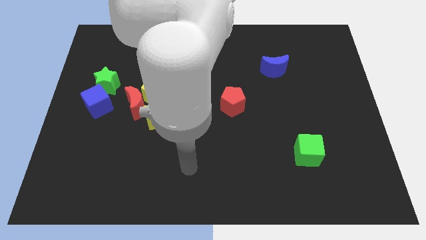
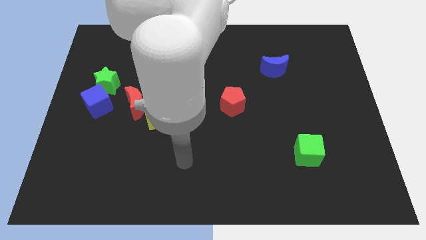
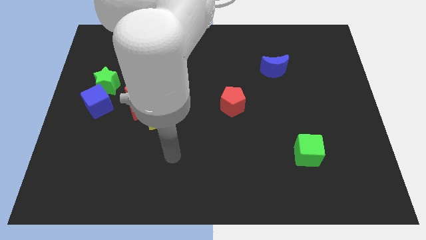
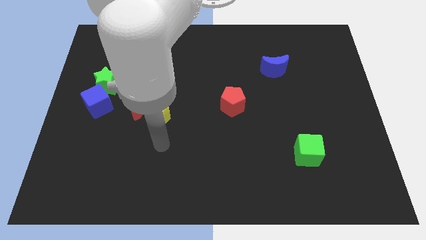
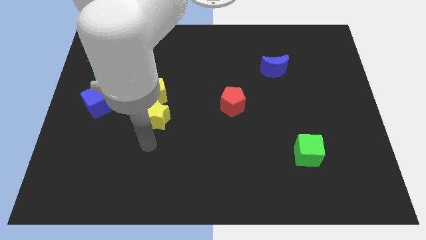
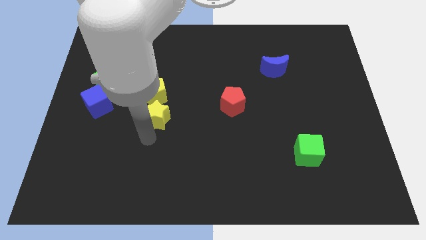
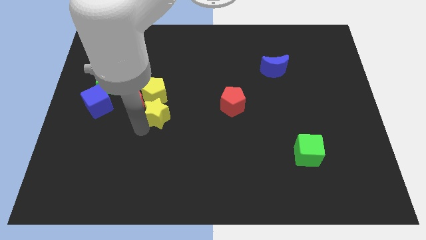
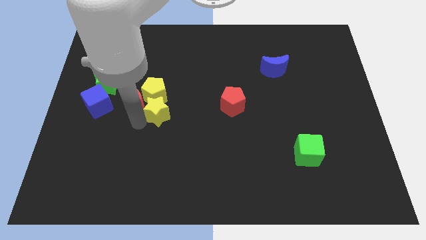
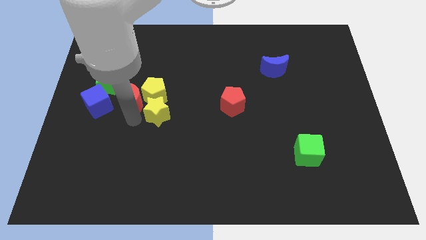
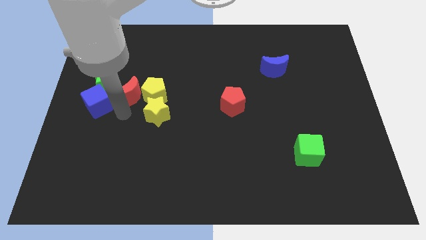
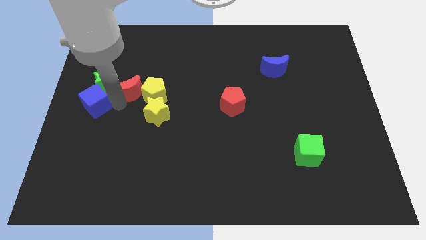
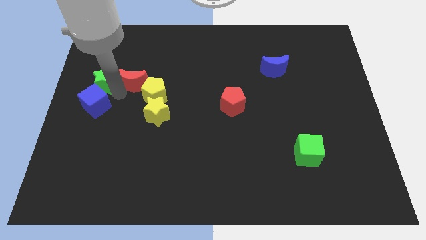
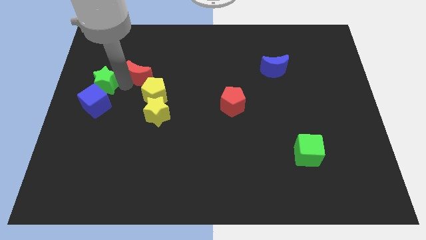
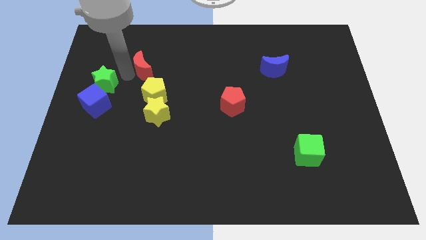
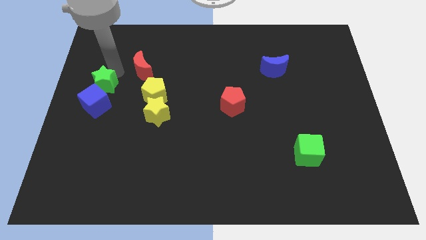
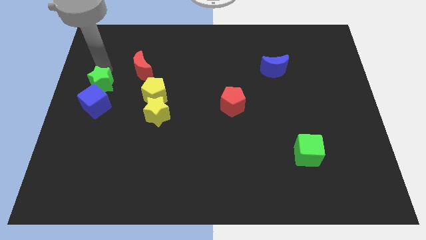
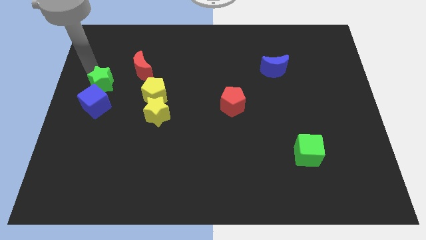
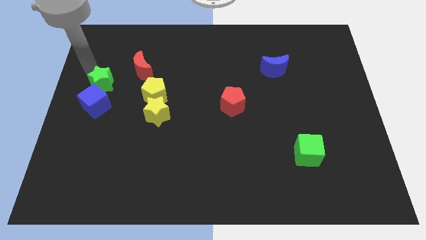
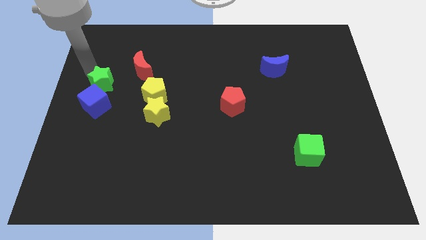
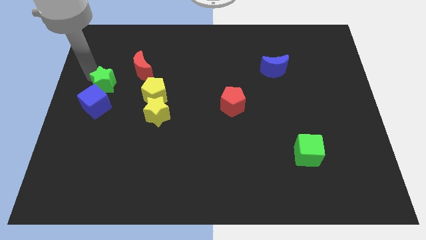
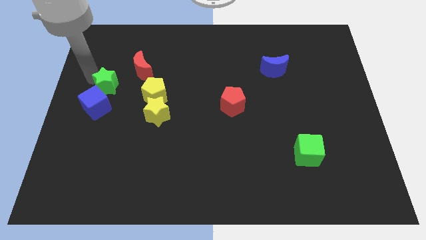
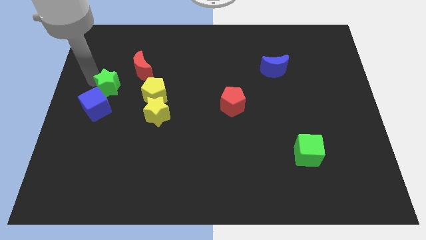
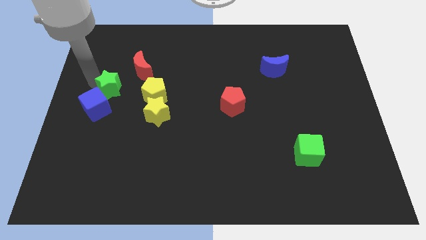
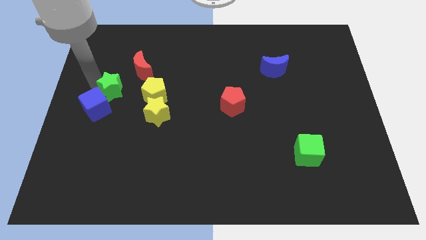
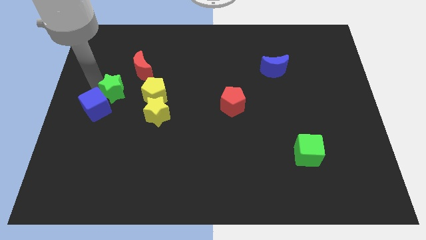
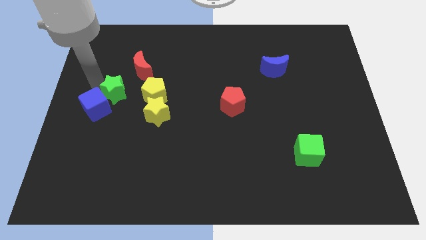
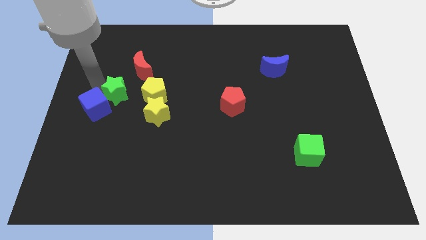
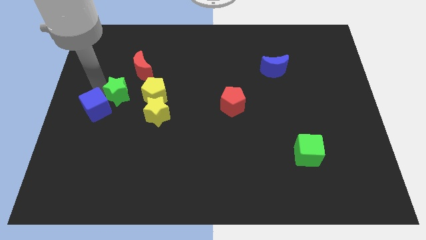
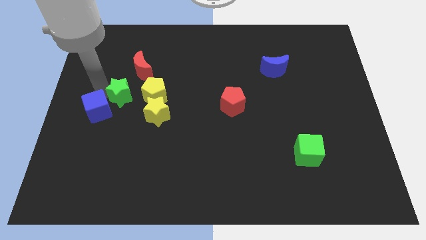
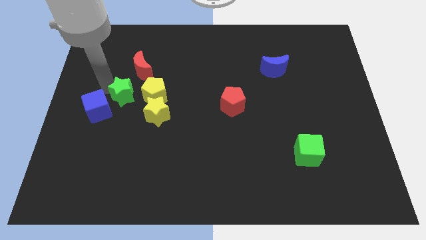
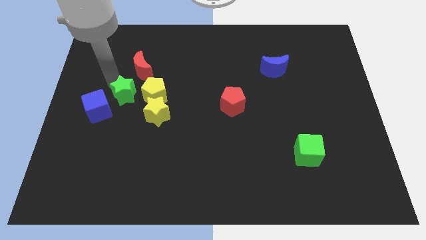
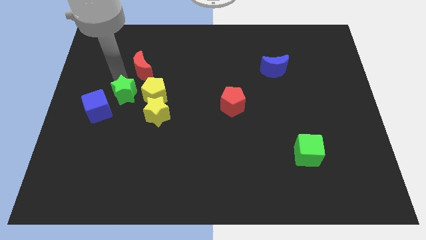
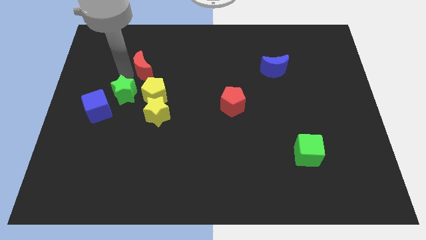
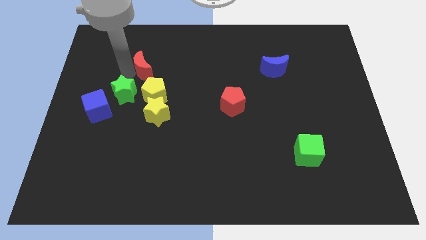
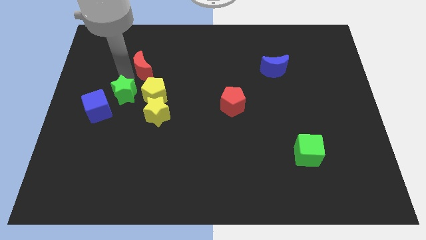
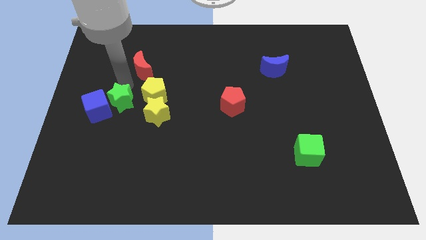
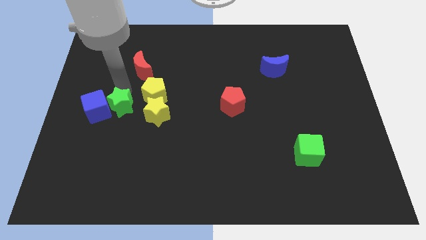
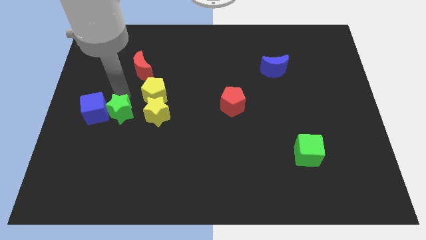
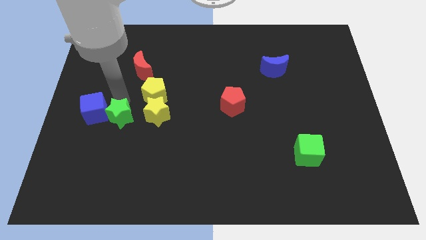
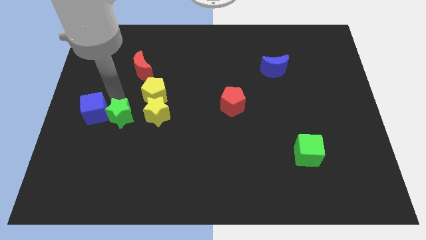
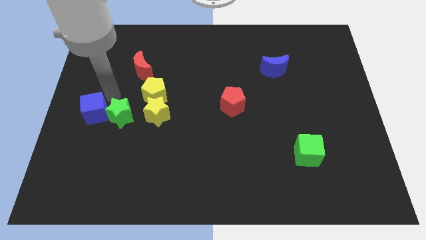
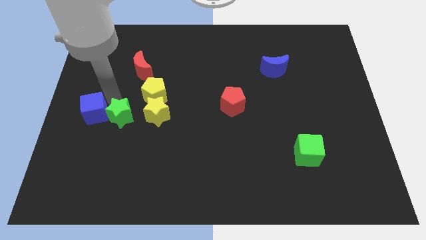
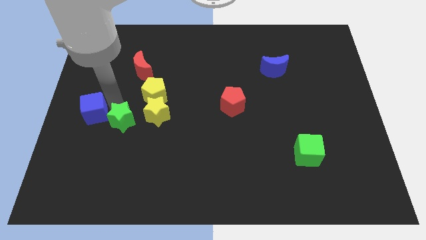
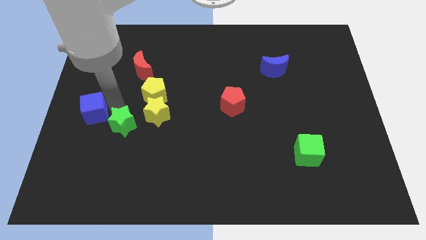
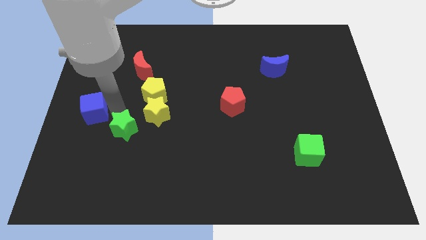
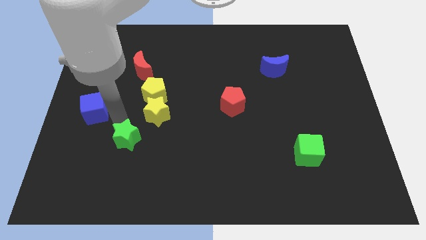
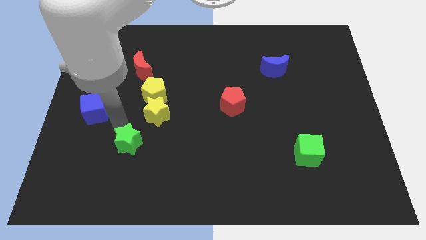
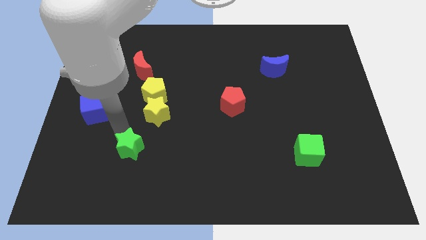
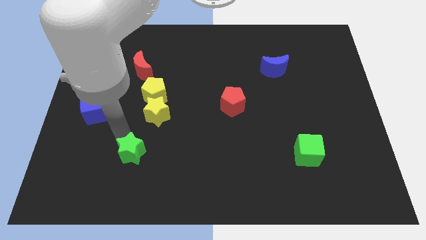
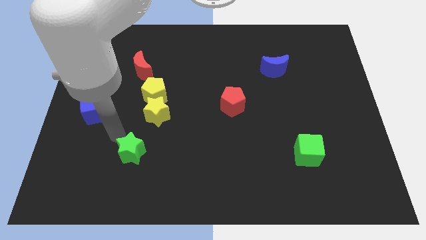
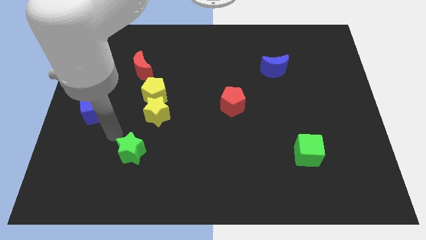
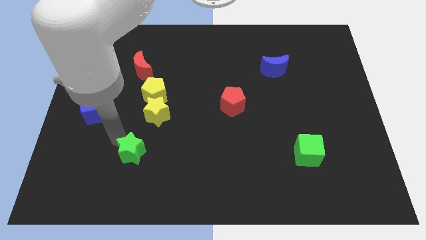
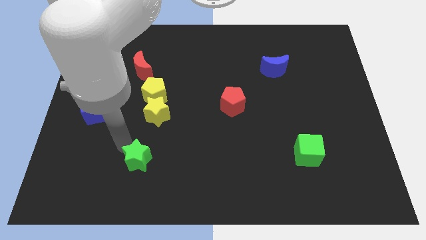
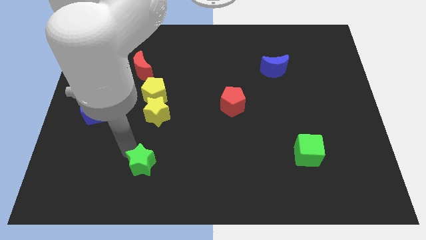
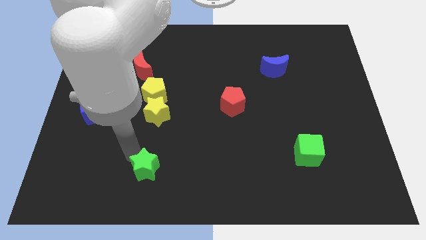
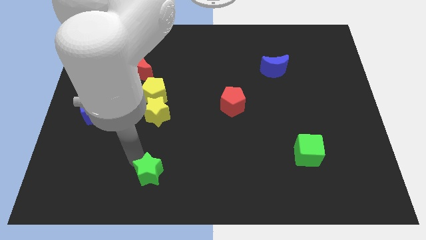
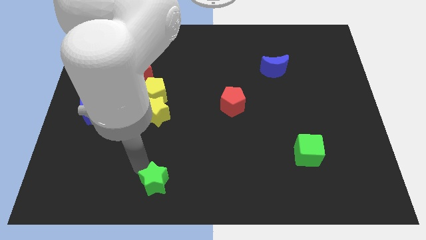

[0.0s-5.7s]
push the green star to the bottom
